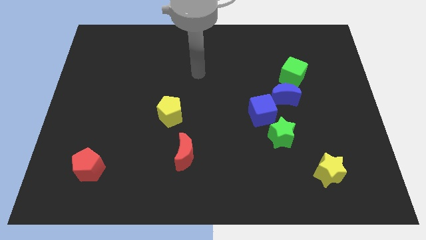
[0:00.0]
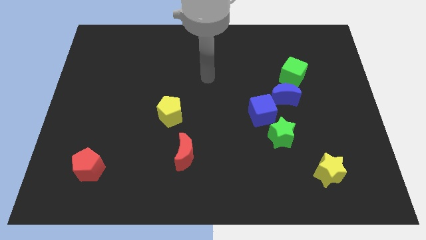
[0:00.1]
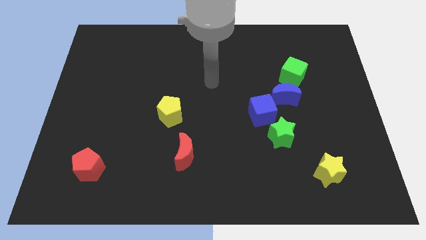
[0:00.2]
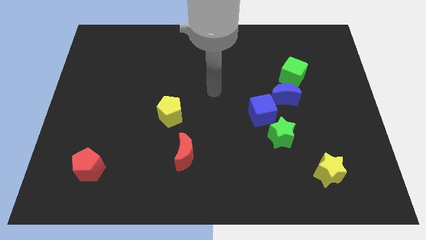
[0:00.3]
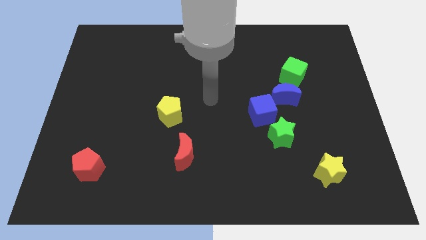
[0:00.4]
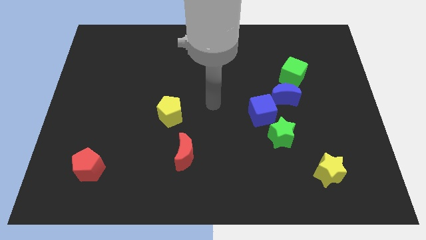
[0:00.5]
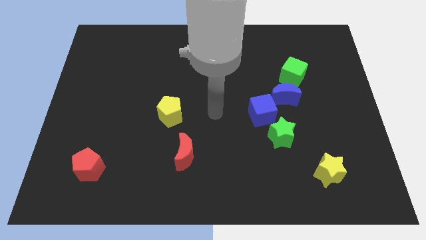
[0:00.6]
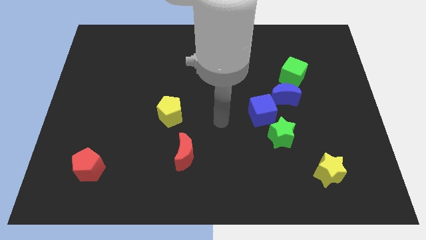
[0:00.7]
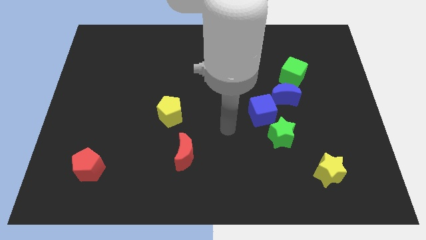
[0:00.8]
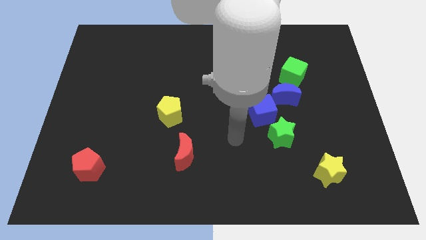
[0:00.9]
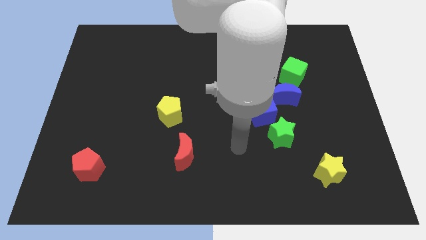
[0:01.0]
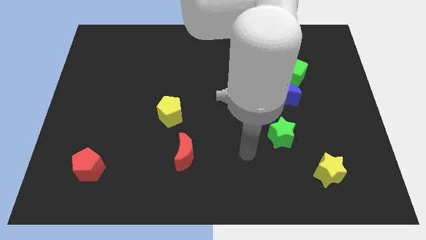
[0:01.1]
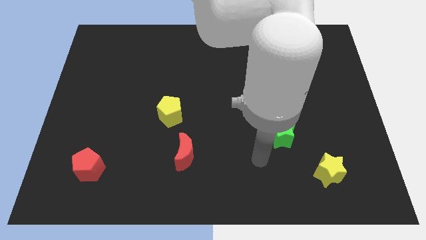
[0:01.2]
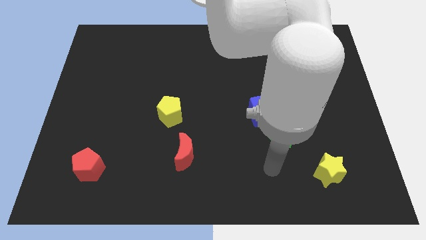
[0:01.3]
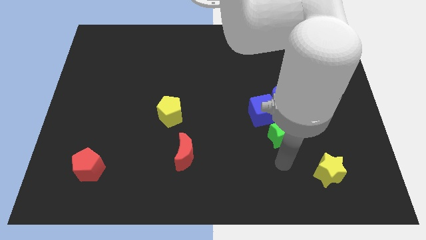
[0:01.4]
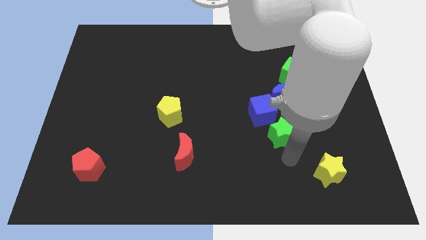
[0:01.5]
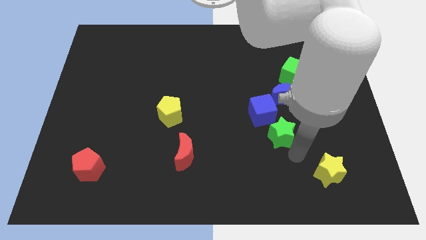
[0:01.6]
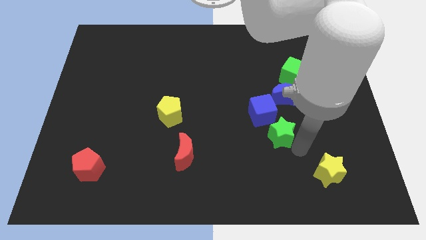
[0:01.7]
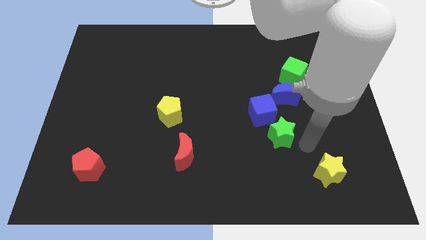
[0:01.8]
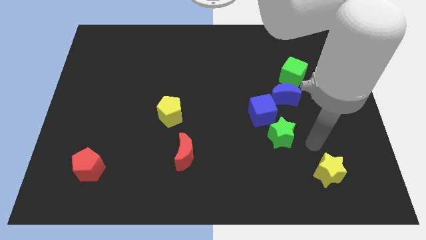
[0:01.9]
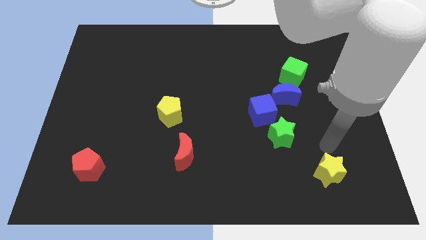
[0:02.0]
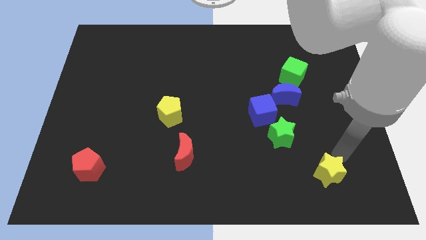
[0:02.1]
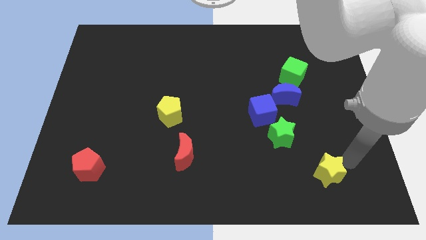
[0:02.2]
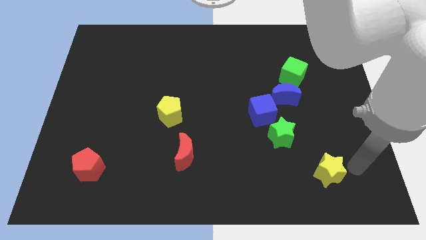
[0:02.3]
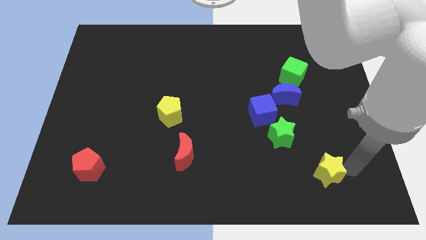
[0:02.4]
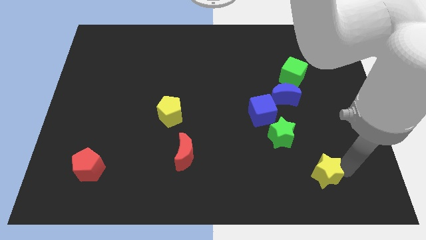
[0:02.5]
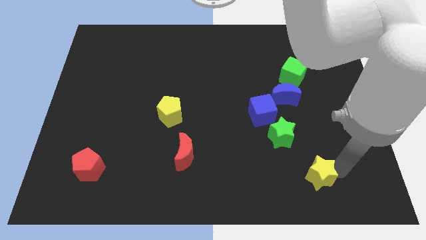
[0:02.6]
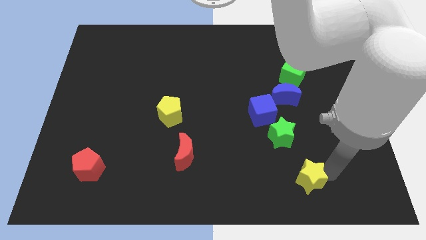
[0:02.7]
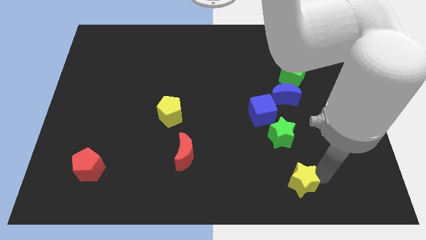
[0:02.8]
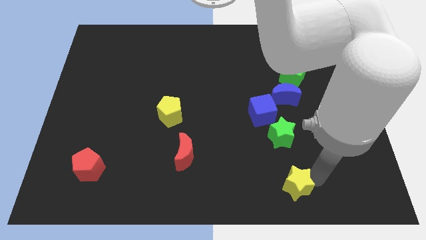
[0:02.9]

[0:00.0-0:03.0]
slide the yellow star left a little bit

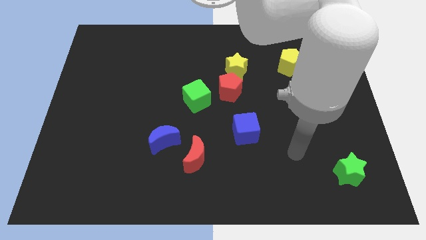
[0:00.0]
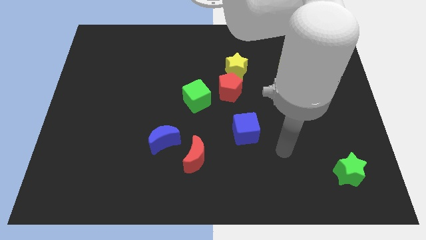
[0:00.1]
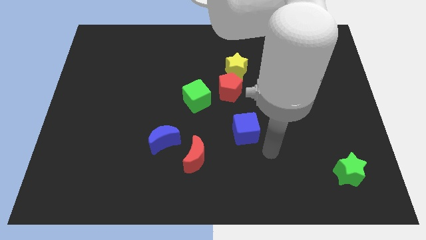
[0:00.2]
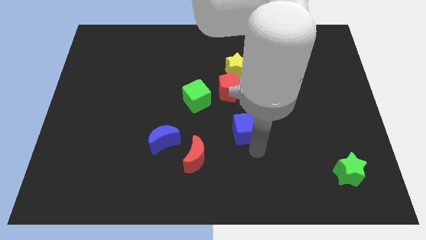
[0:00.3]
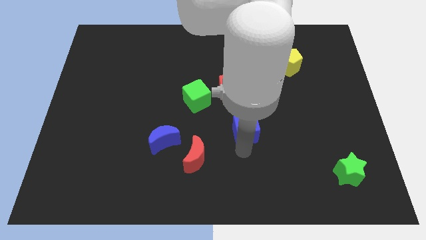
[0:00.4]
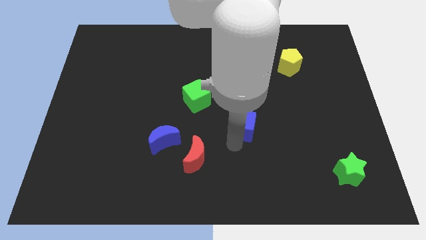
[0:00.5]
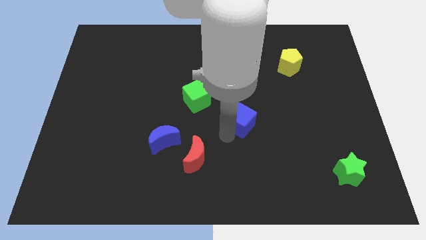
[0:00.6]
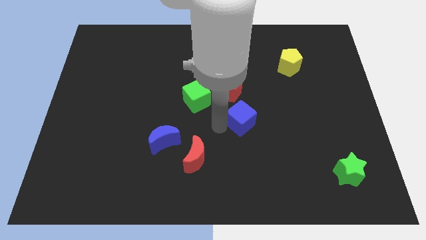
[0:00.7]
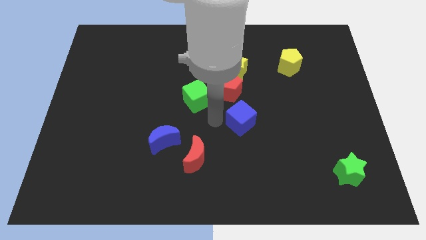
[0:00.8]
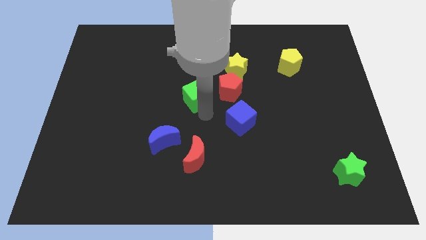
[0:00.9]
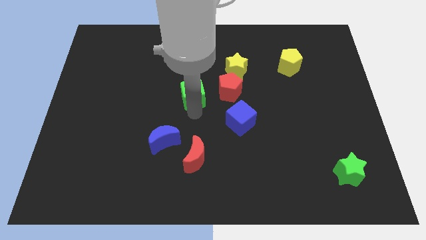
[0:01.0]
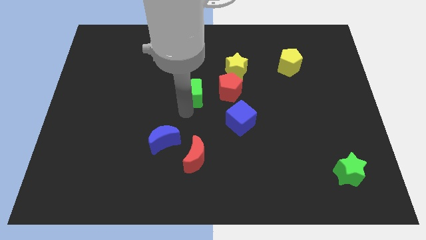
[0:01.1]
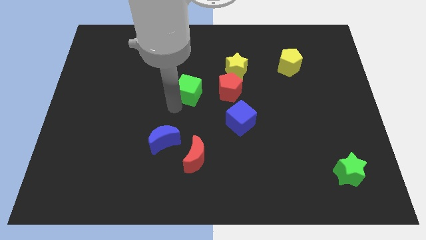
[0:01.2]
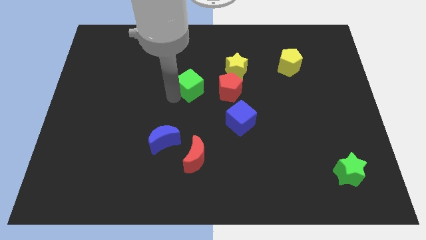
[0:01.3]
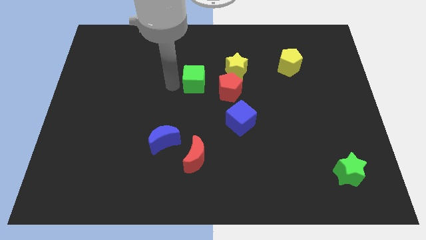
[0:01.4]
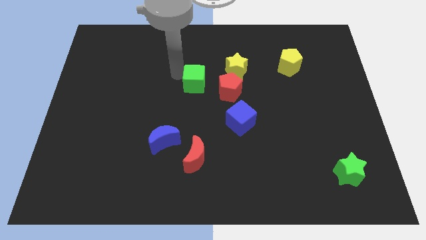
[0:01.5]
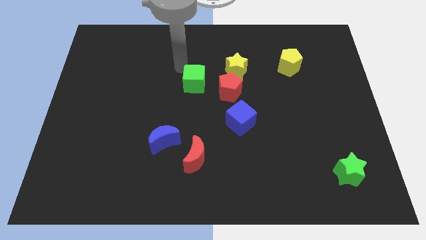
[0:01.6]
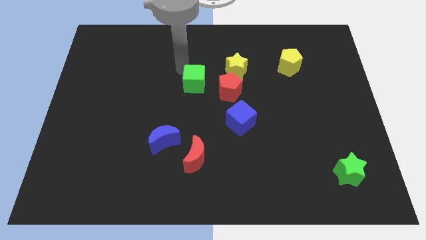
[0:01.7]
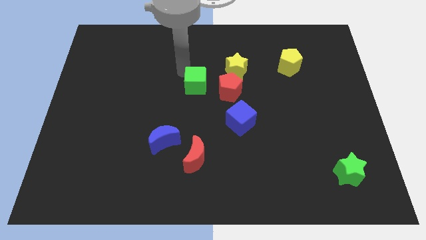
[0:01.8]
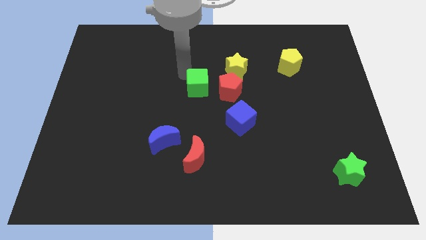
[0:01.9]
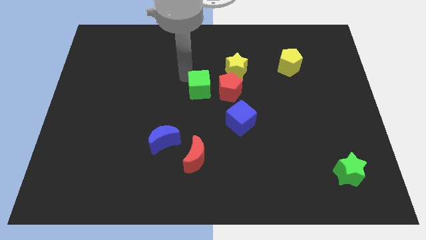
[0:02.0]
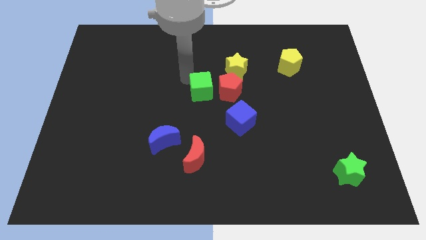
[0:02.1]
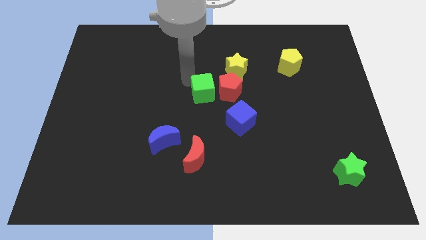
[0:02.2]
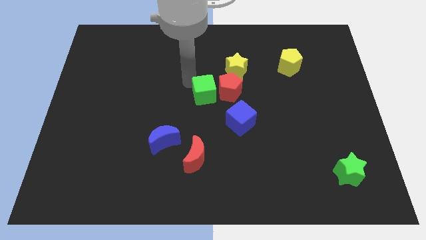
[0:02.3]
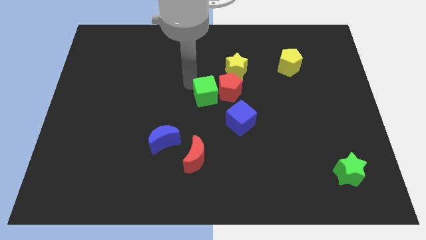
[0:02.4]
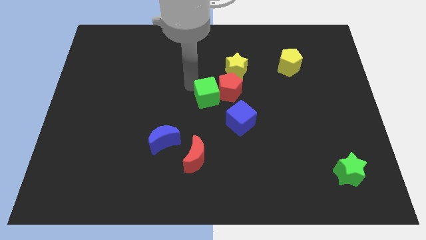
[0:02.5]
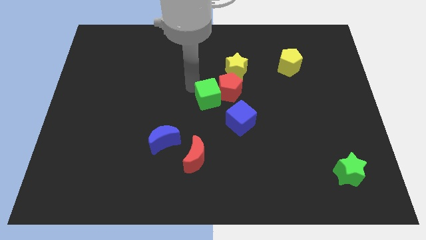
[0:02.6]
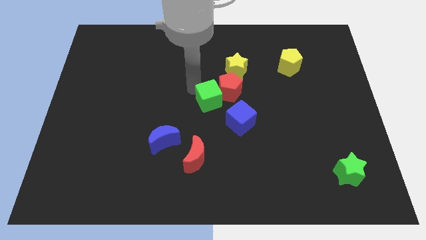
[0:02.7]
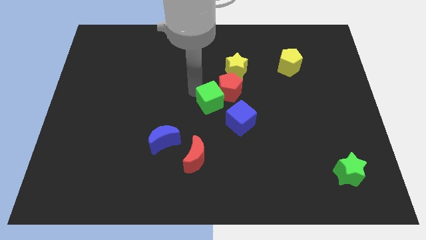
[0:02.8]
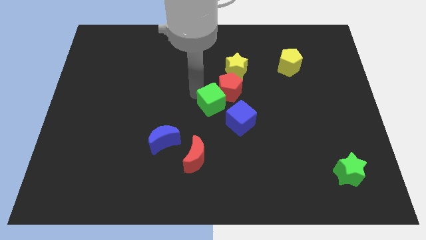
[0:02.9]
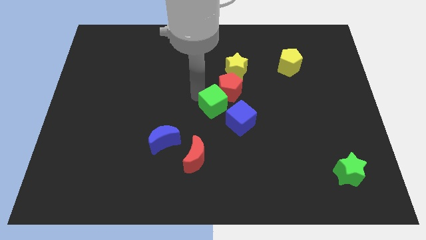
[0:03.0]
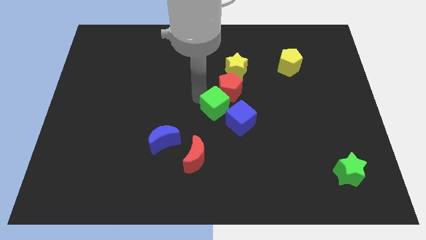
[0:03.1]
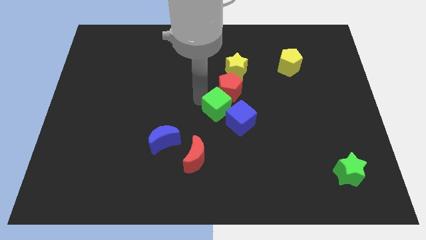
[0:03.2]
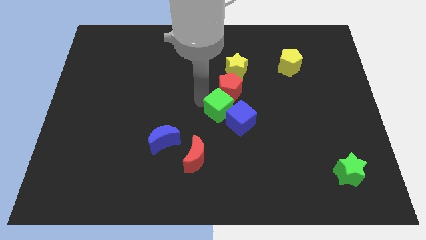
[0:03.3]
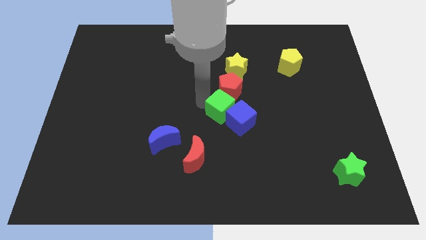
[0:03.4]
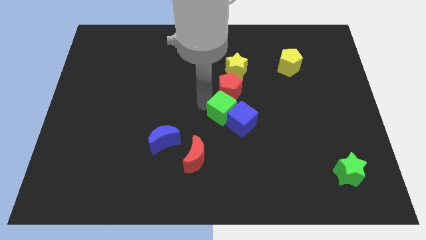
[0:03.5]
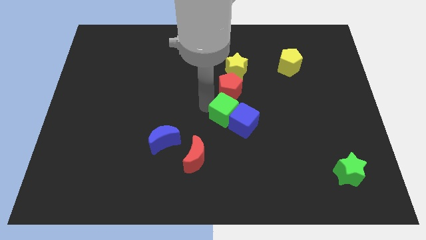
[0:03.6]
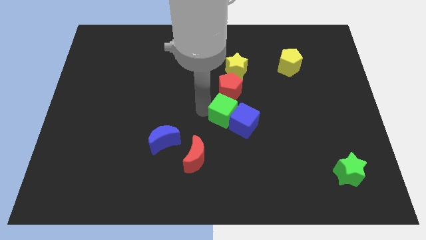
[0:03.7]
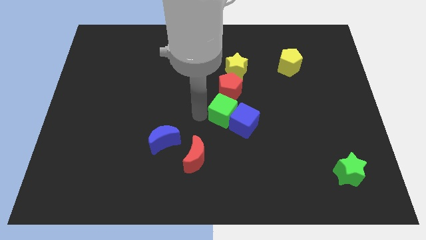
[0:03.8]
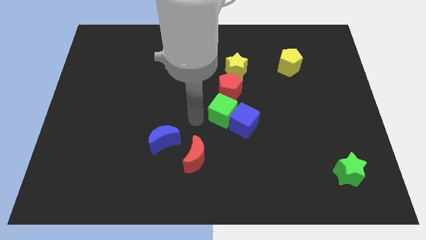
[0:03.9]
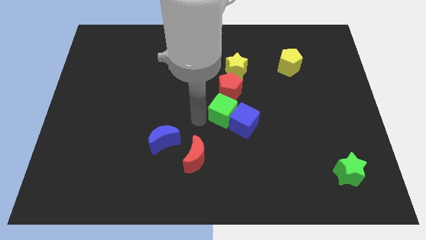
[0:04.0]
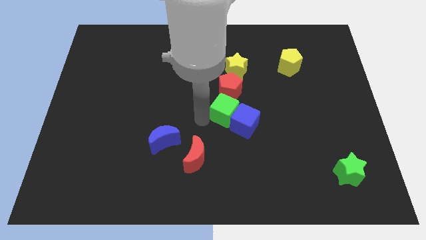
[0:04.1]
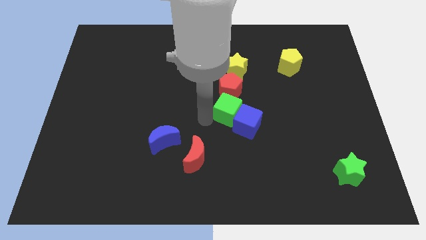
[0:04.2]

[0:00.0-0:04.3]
move the green cube to the right a little bit

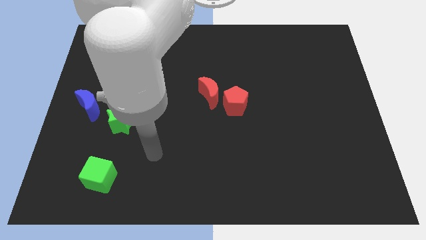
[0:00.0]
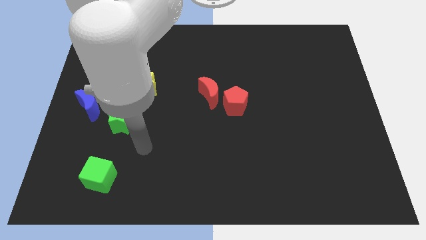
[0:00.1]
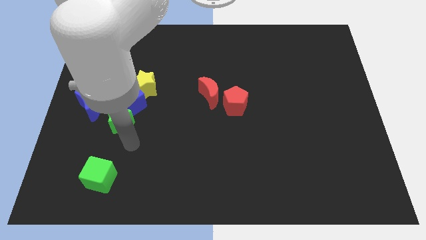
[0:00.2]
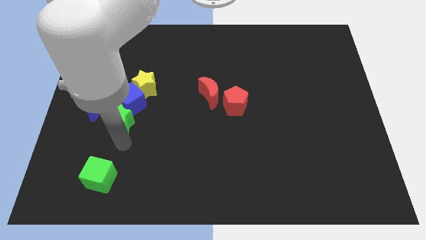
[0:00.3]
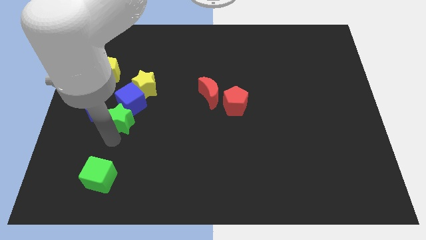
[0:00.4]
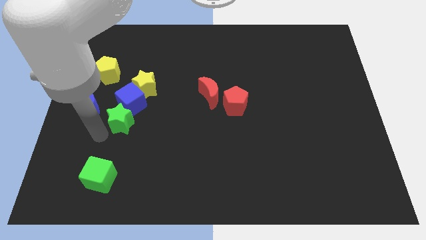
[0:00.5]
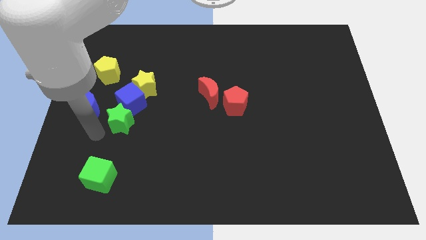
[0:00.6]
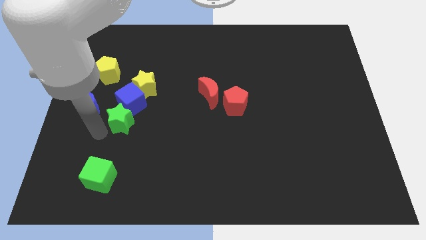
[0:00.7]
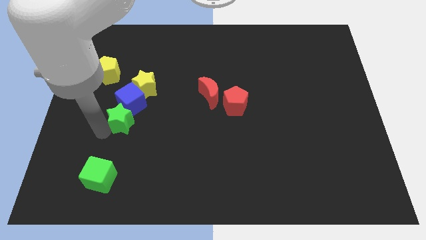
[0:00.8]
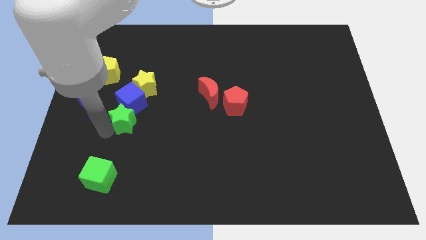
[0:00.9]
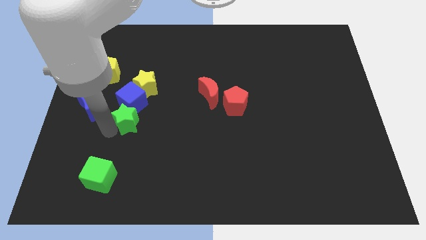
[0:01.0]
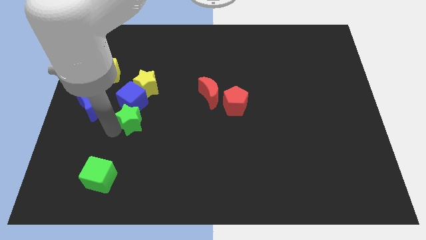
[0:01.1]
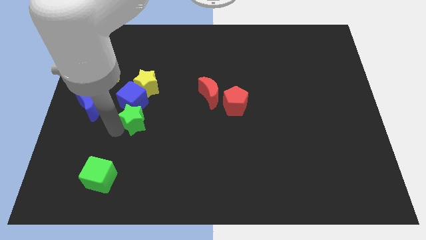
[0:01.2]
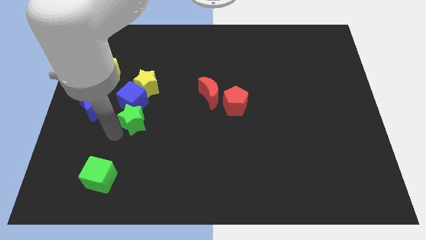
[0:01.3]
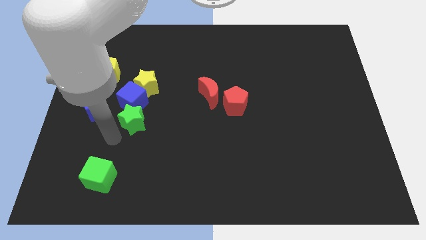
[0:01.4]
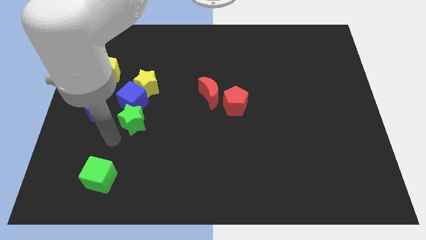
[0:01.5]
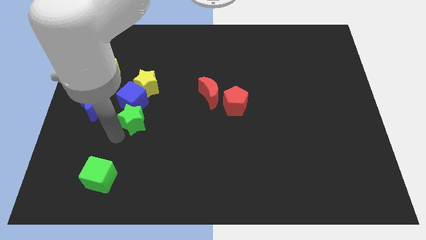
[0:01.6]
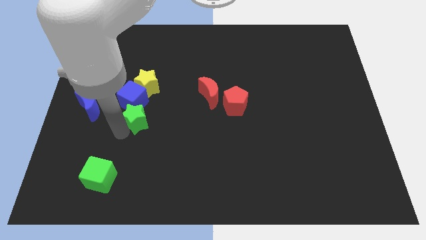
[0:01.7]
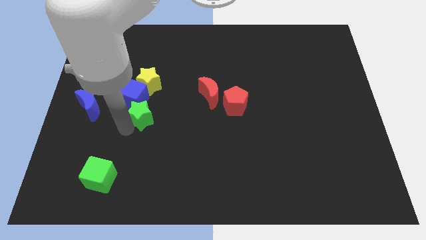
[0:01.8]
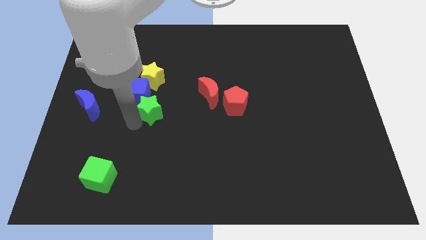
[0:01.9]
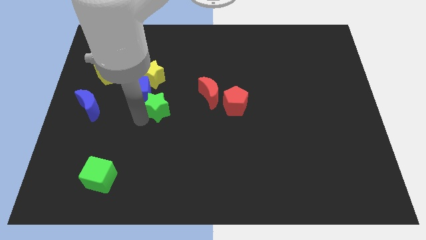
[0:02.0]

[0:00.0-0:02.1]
slightly move the green star upwards and right diagonally
